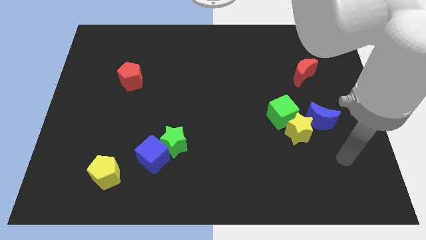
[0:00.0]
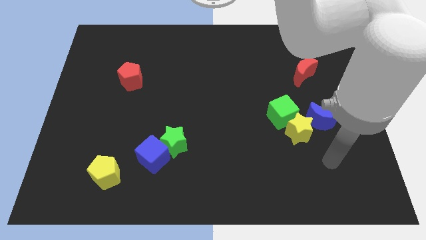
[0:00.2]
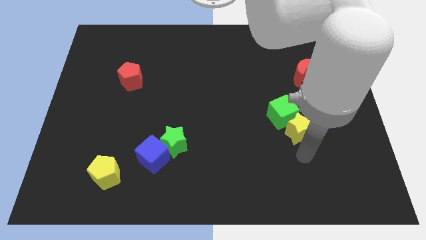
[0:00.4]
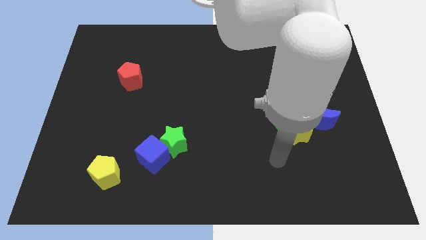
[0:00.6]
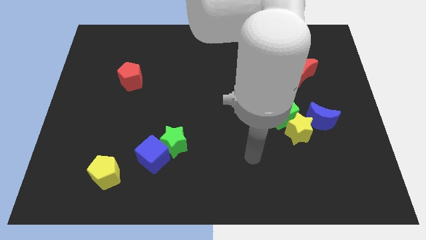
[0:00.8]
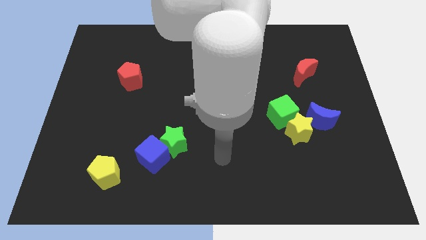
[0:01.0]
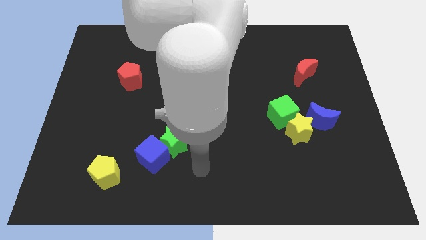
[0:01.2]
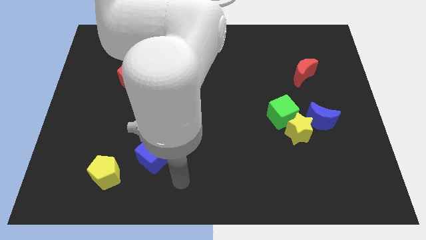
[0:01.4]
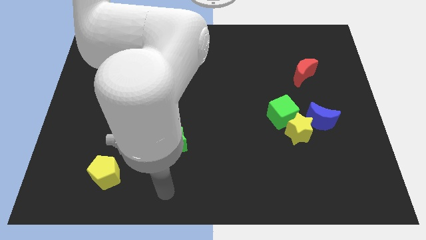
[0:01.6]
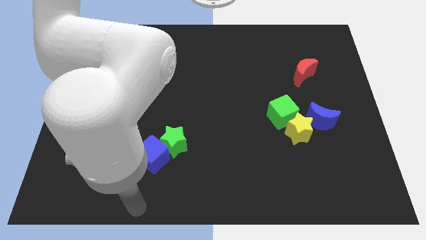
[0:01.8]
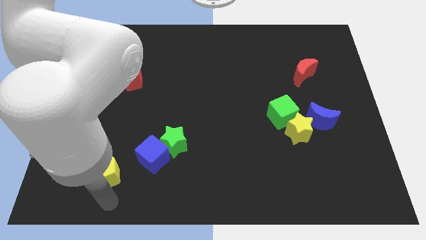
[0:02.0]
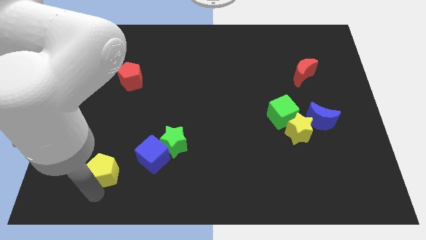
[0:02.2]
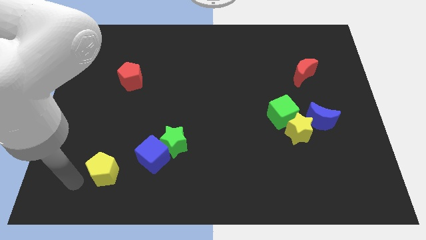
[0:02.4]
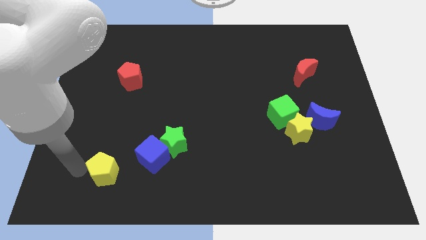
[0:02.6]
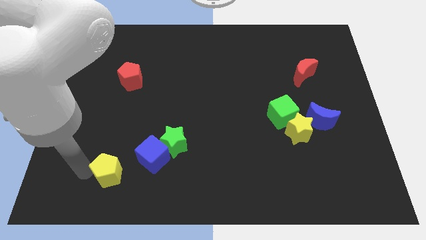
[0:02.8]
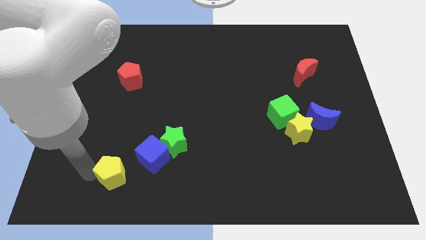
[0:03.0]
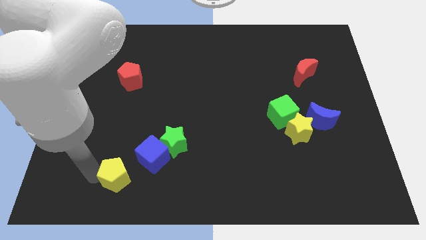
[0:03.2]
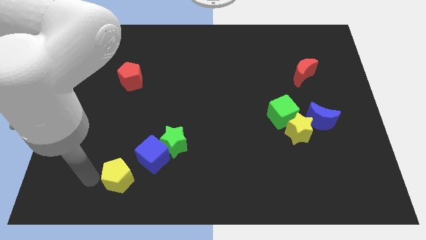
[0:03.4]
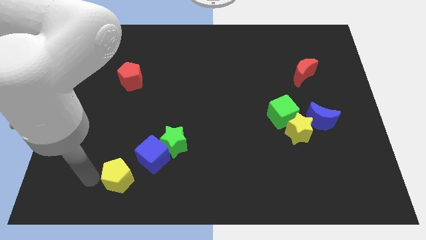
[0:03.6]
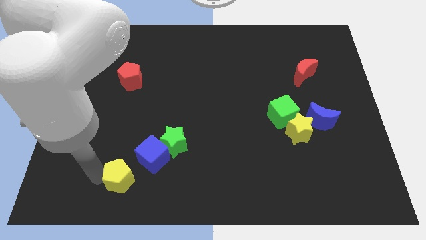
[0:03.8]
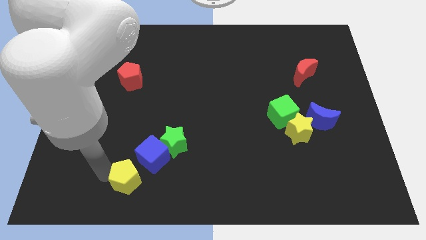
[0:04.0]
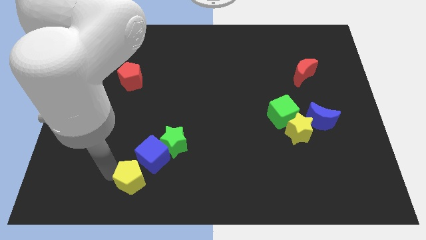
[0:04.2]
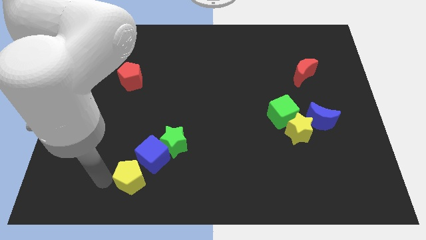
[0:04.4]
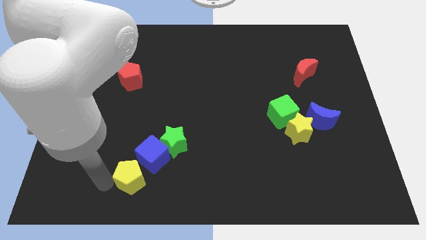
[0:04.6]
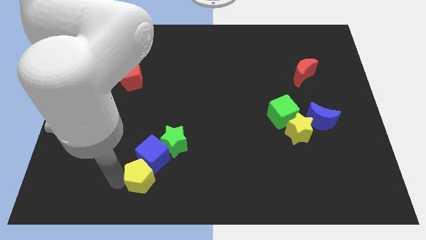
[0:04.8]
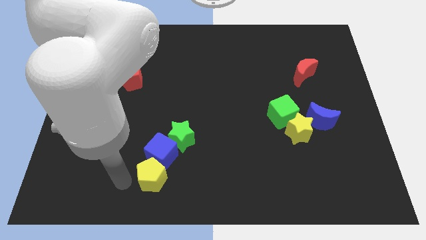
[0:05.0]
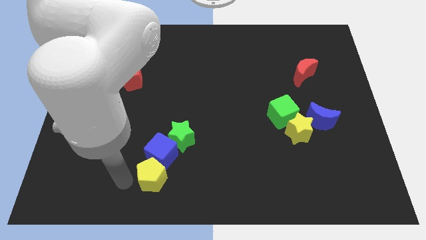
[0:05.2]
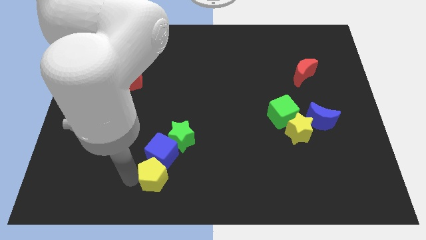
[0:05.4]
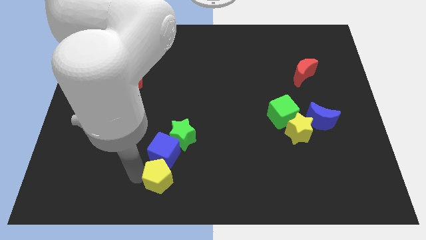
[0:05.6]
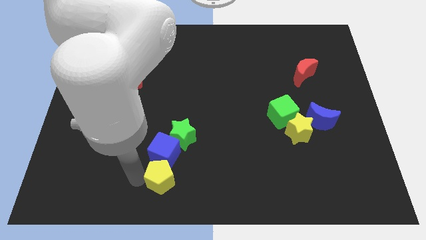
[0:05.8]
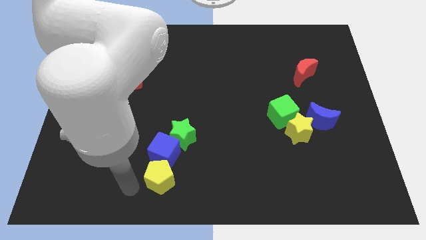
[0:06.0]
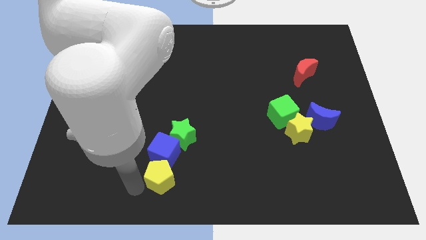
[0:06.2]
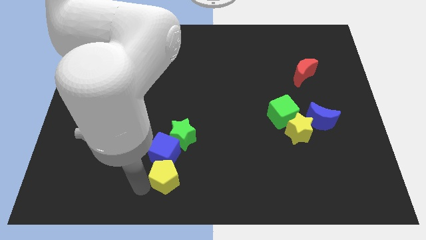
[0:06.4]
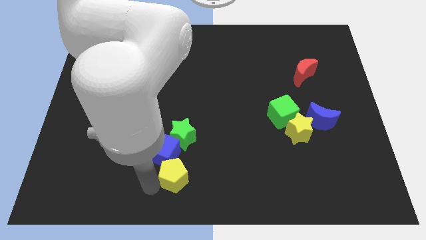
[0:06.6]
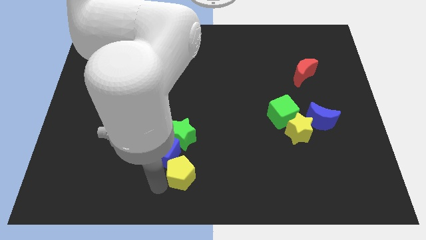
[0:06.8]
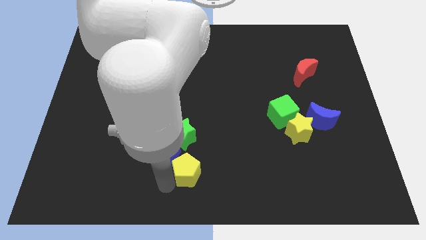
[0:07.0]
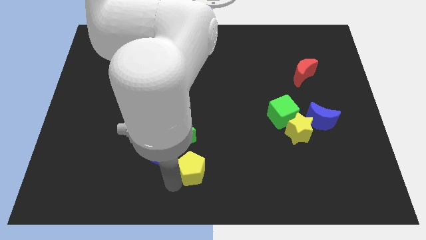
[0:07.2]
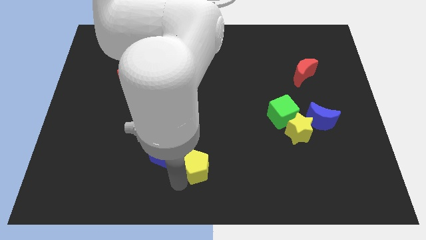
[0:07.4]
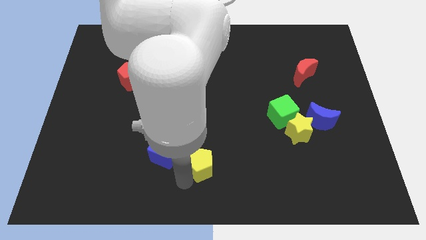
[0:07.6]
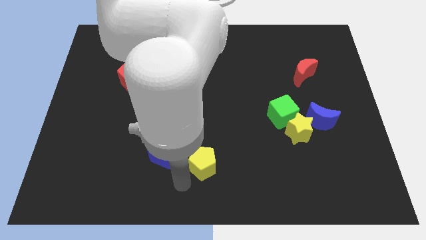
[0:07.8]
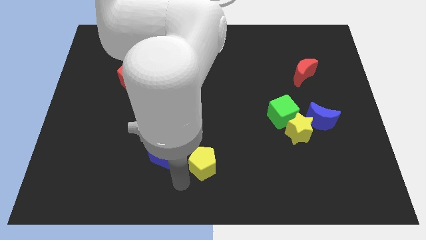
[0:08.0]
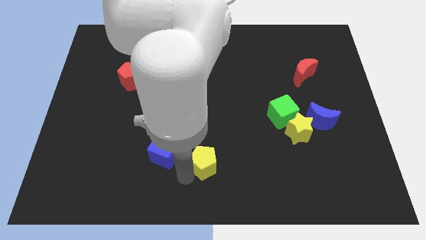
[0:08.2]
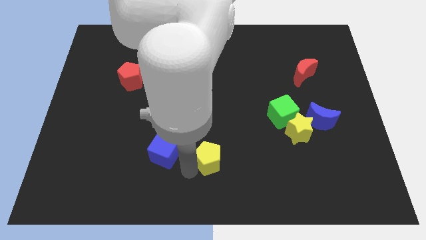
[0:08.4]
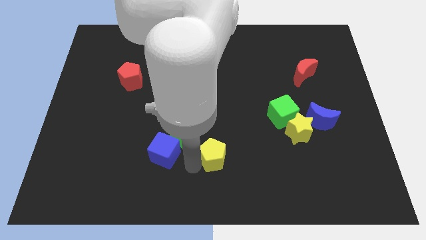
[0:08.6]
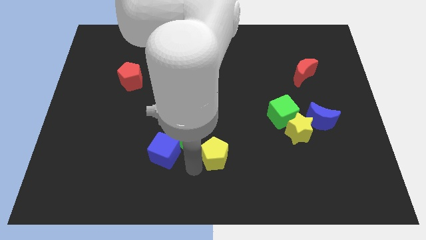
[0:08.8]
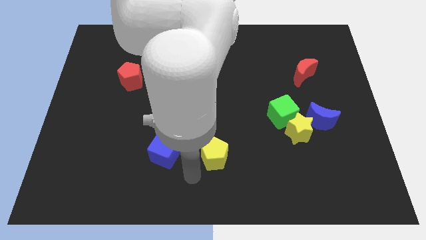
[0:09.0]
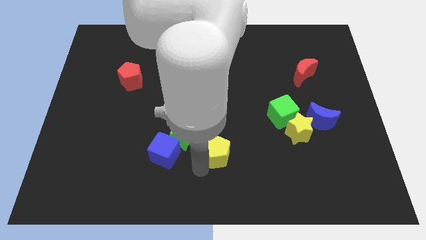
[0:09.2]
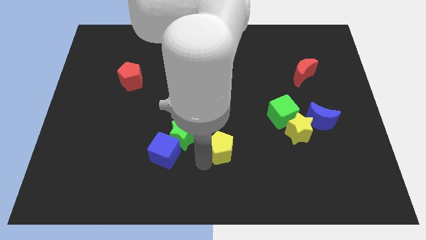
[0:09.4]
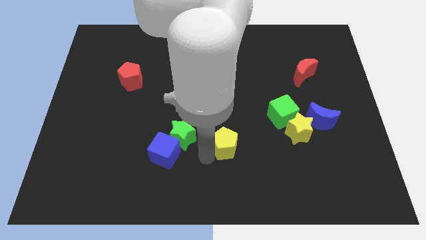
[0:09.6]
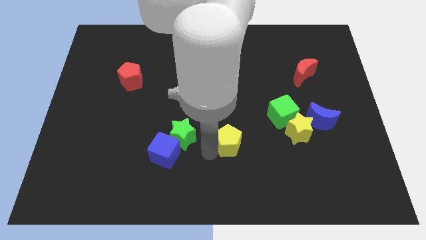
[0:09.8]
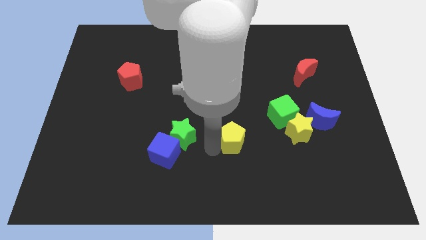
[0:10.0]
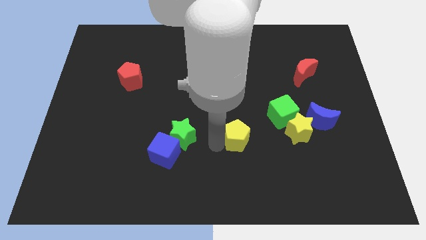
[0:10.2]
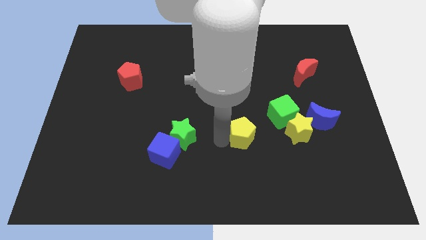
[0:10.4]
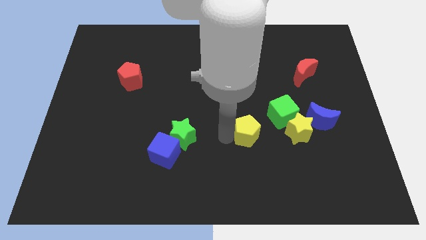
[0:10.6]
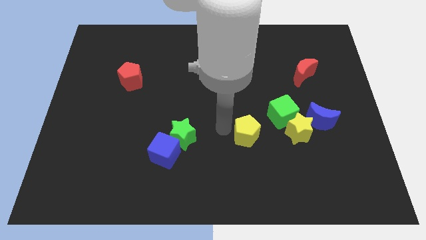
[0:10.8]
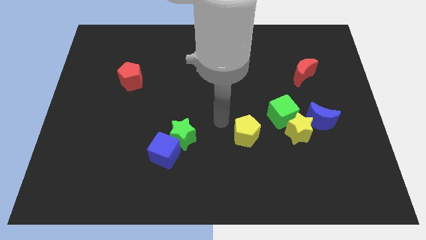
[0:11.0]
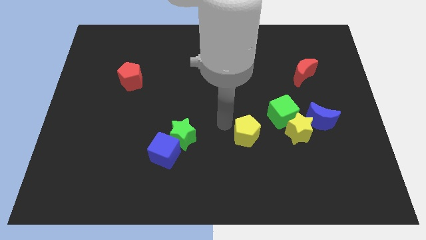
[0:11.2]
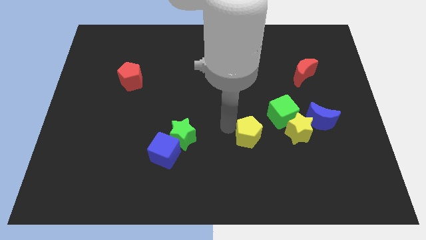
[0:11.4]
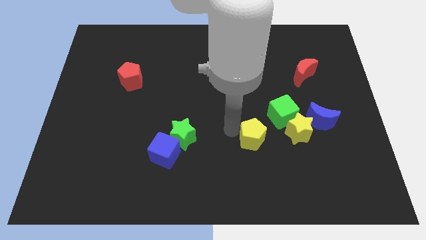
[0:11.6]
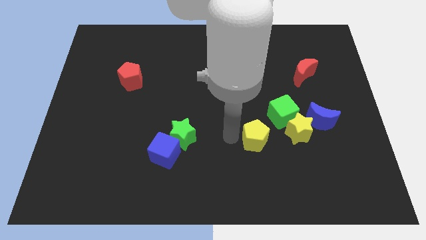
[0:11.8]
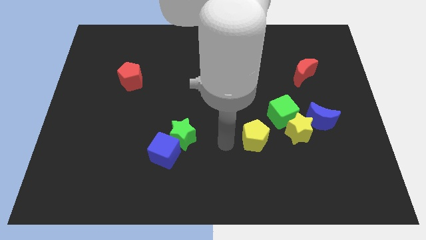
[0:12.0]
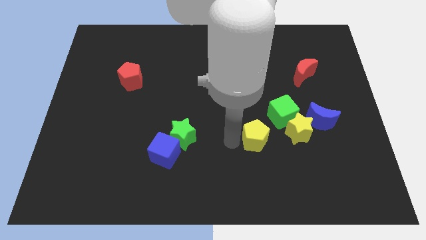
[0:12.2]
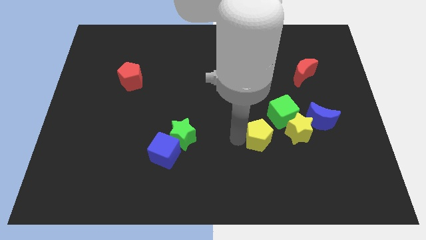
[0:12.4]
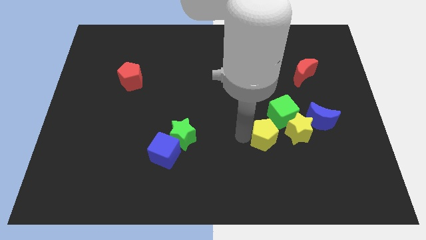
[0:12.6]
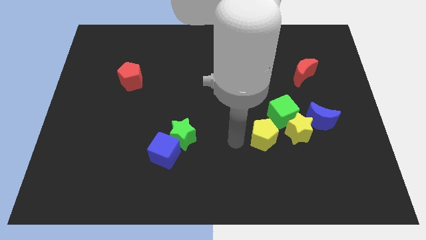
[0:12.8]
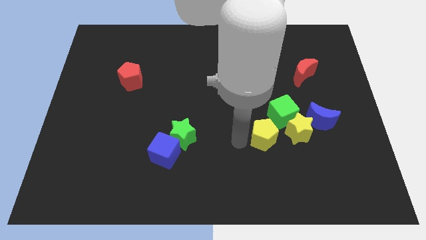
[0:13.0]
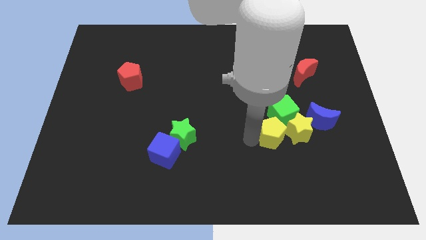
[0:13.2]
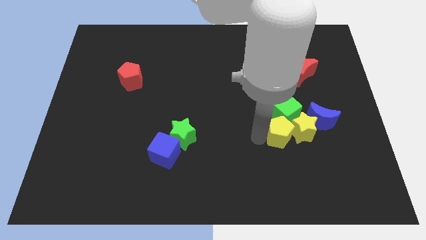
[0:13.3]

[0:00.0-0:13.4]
push the yellow pentagon towards the yellow star

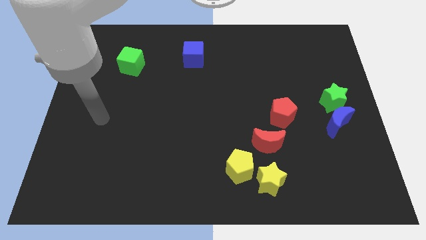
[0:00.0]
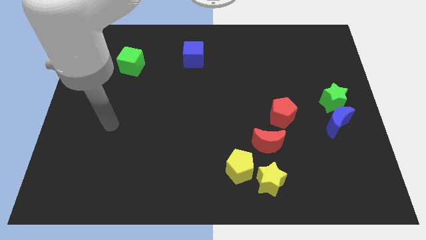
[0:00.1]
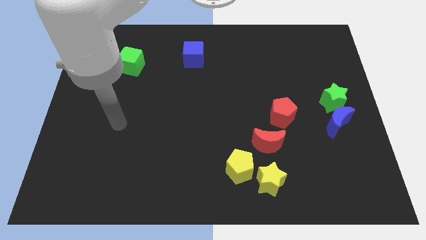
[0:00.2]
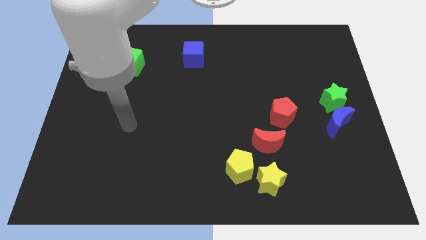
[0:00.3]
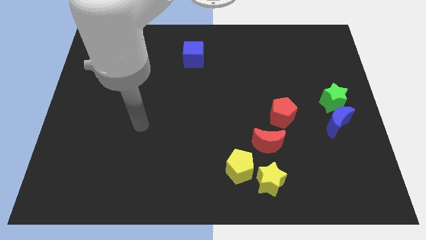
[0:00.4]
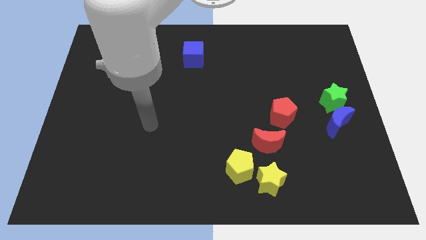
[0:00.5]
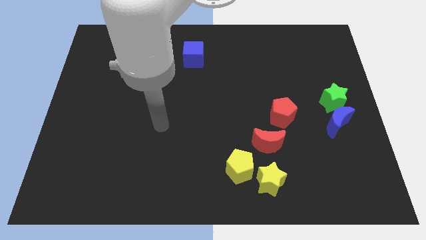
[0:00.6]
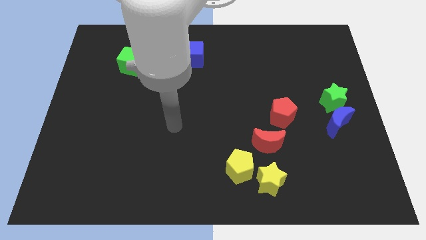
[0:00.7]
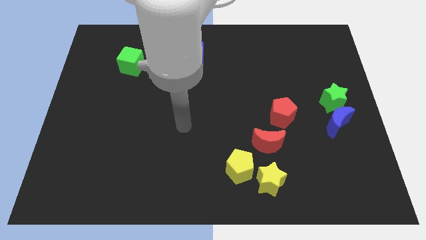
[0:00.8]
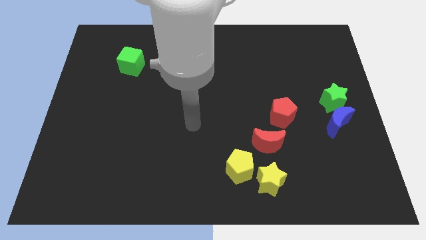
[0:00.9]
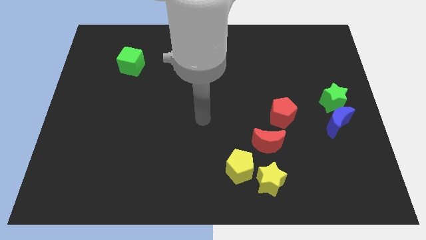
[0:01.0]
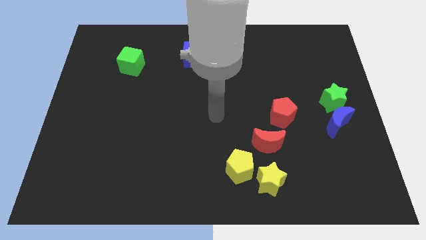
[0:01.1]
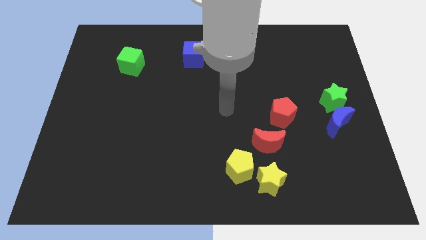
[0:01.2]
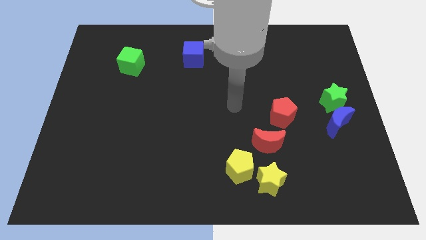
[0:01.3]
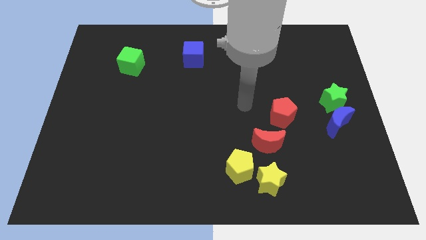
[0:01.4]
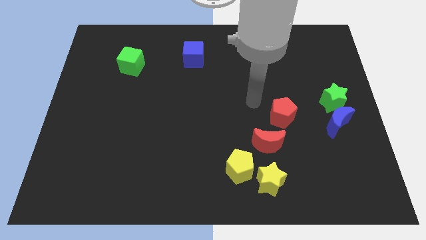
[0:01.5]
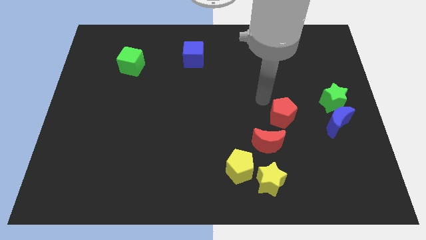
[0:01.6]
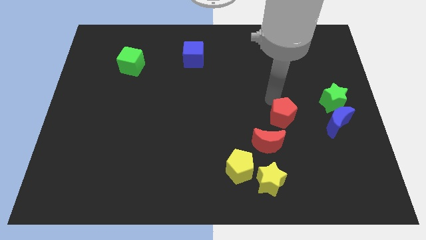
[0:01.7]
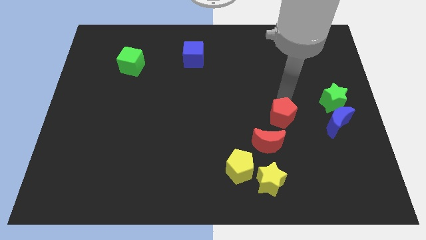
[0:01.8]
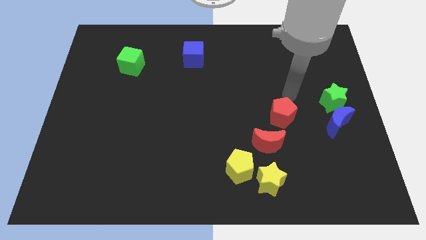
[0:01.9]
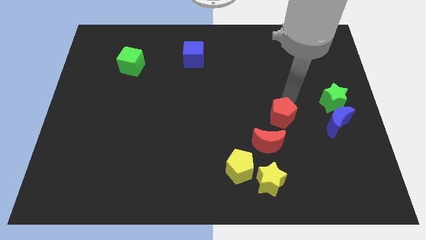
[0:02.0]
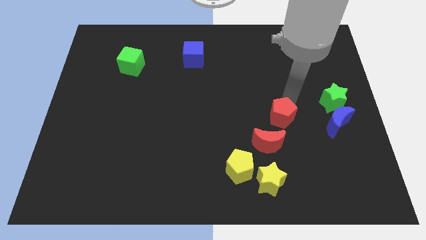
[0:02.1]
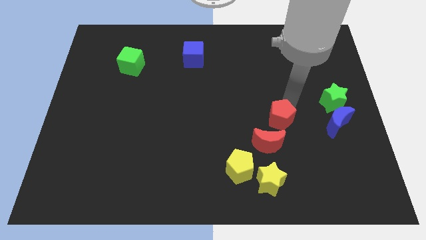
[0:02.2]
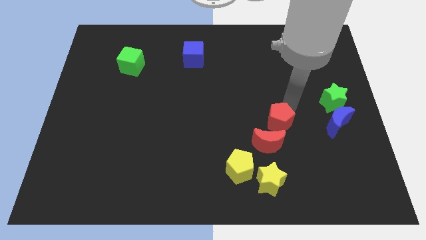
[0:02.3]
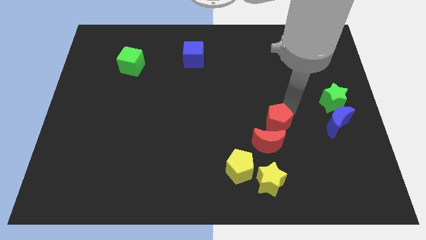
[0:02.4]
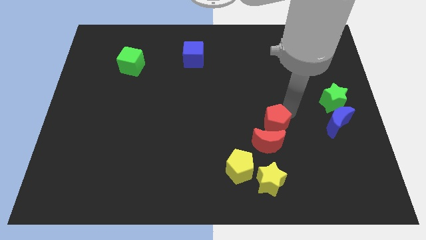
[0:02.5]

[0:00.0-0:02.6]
move the red pentagon to the red moon
